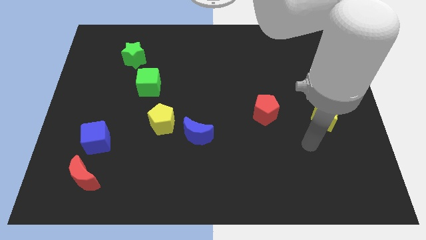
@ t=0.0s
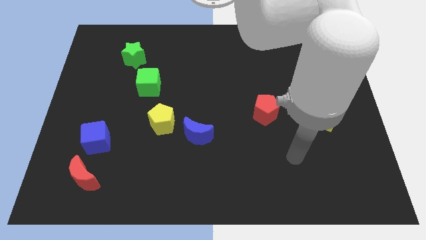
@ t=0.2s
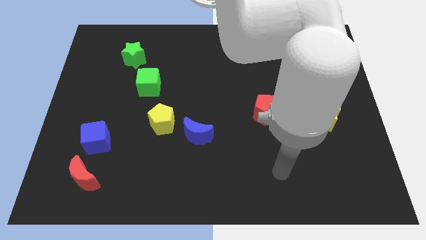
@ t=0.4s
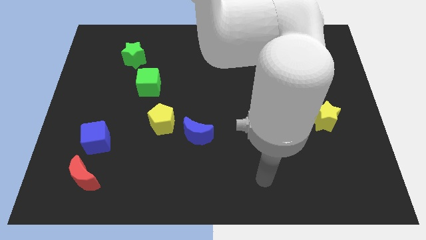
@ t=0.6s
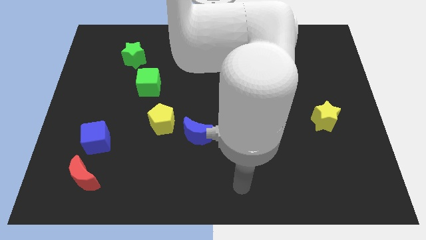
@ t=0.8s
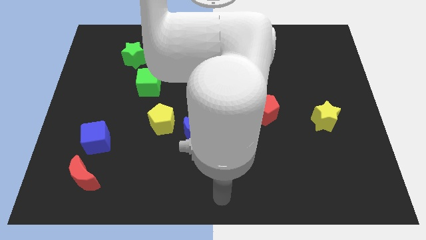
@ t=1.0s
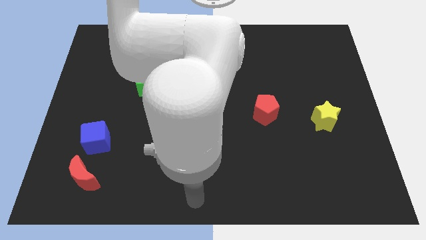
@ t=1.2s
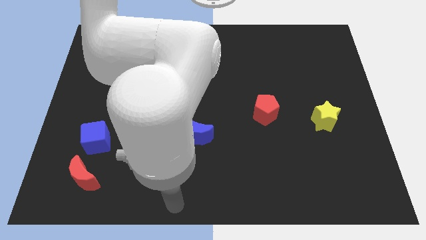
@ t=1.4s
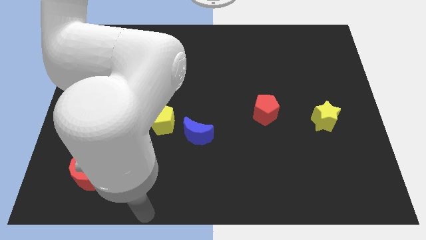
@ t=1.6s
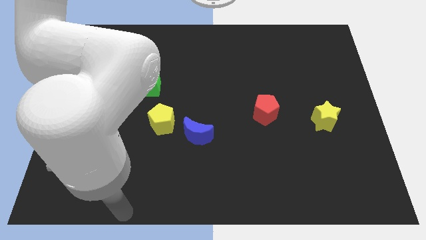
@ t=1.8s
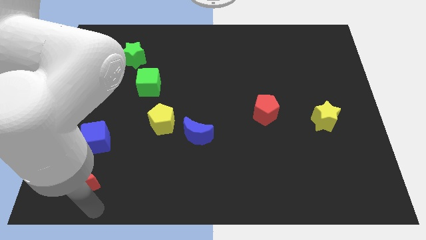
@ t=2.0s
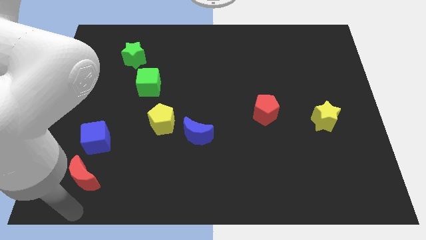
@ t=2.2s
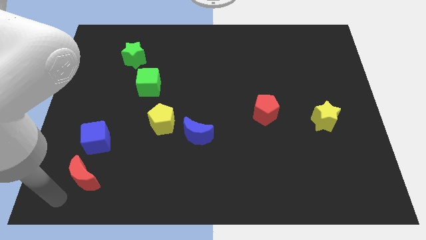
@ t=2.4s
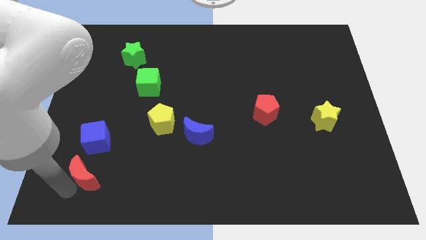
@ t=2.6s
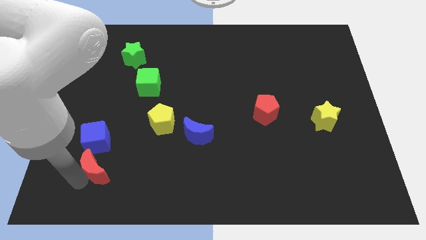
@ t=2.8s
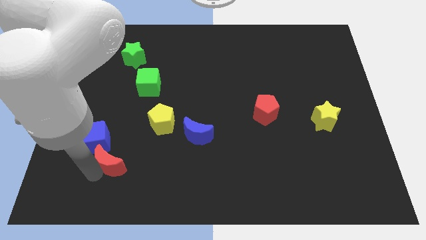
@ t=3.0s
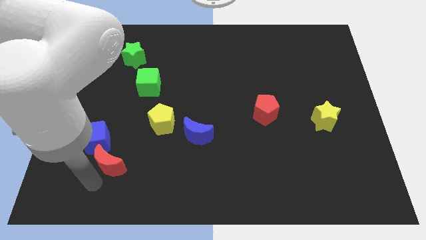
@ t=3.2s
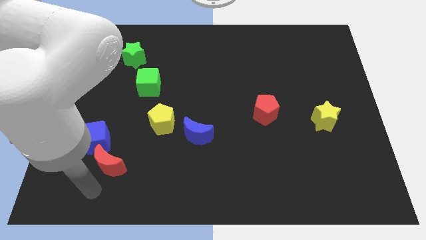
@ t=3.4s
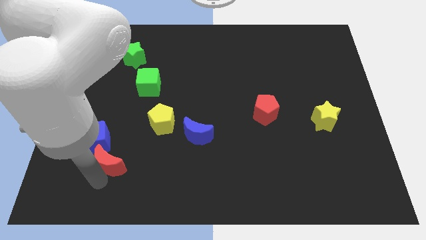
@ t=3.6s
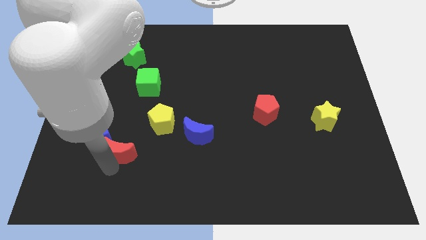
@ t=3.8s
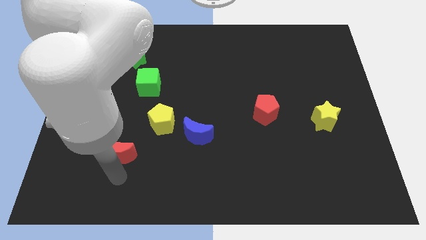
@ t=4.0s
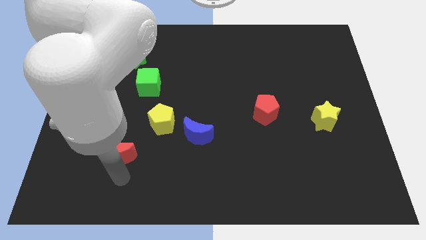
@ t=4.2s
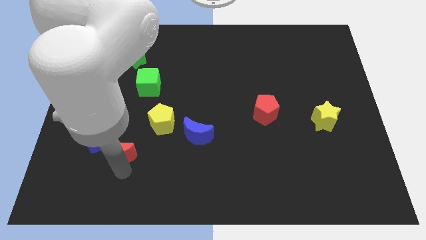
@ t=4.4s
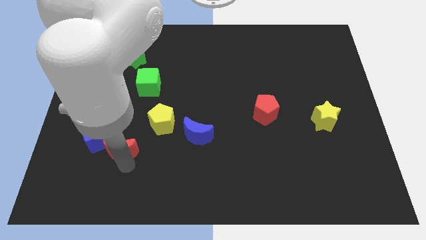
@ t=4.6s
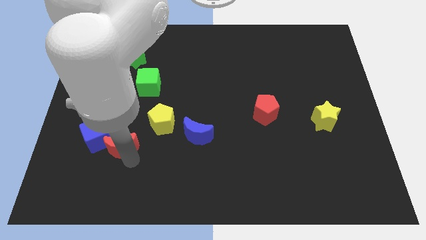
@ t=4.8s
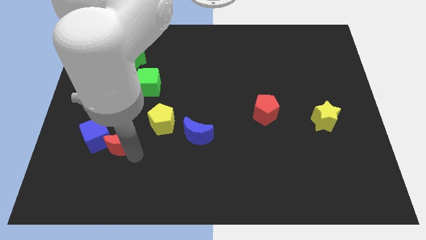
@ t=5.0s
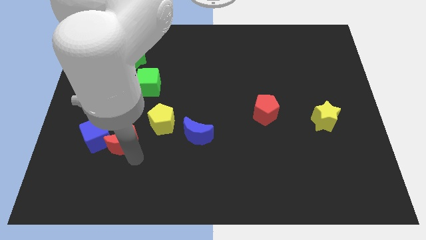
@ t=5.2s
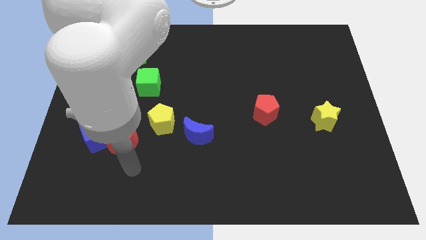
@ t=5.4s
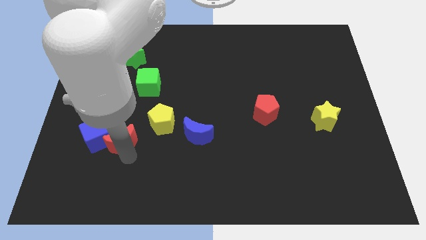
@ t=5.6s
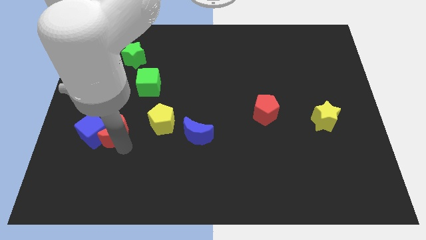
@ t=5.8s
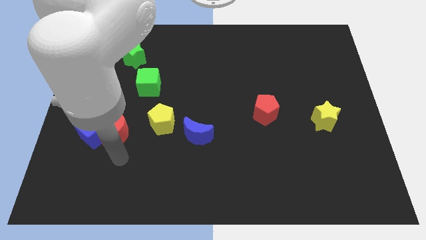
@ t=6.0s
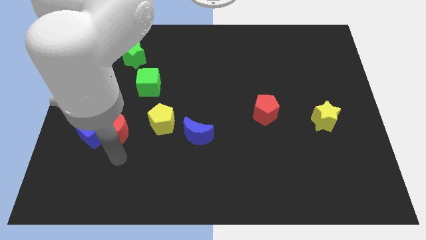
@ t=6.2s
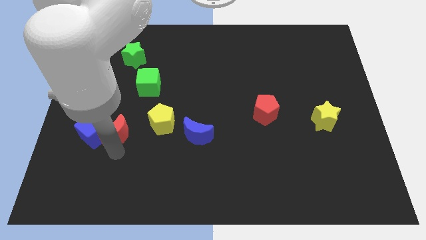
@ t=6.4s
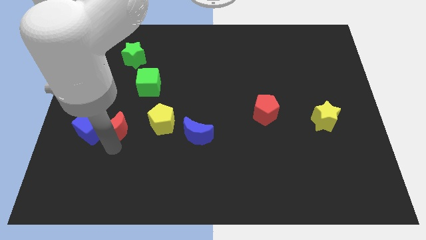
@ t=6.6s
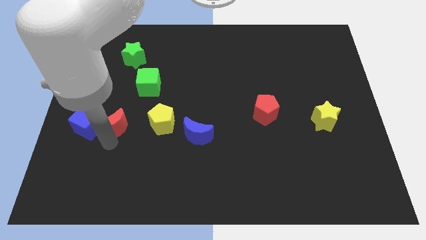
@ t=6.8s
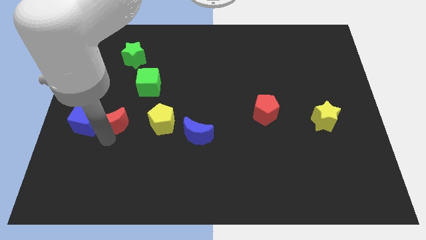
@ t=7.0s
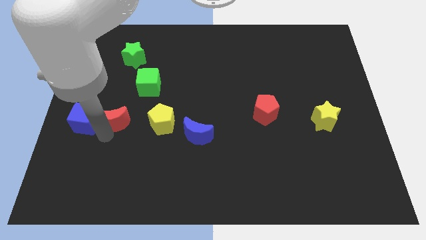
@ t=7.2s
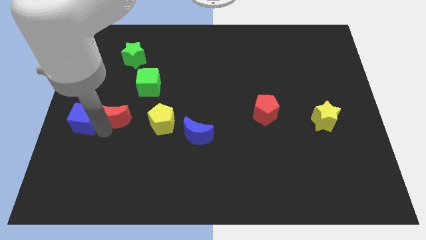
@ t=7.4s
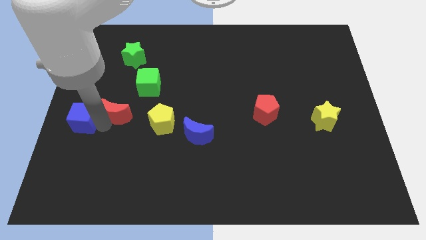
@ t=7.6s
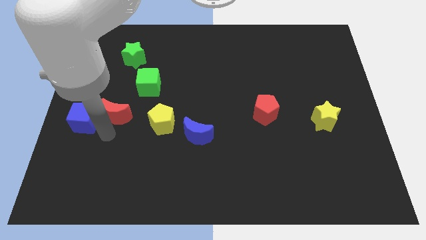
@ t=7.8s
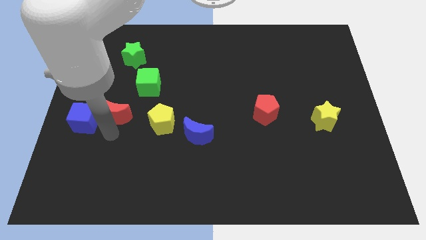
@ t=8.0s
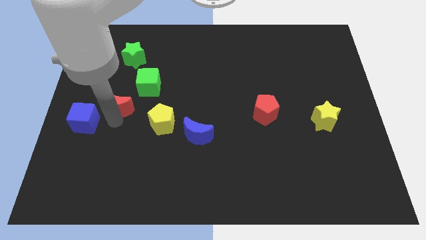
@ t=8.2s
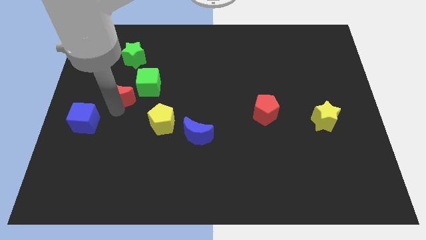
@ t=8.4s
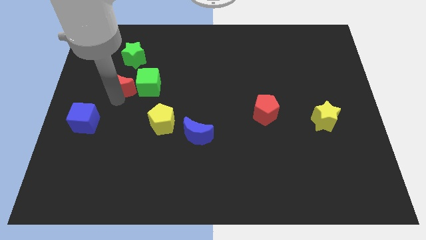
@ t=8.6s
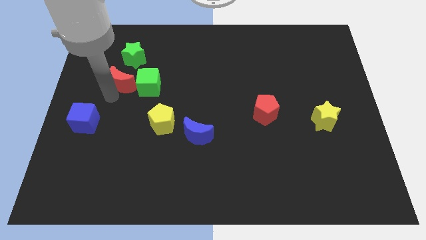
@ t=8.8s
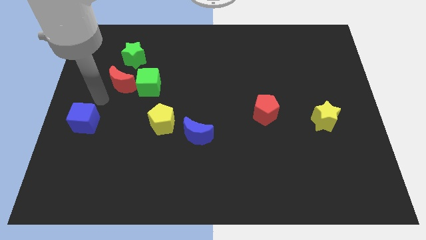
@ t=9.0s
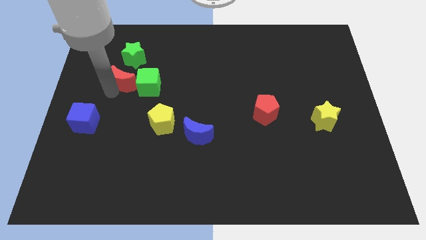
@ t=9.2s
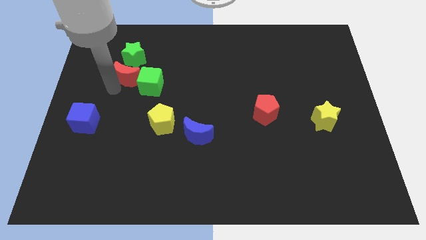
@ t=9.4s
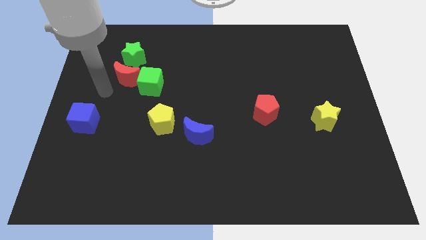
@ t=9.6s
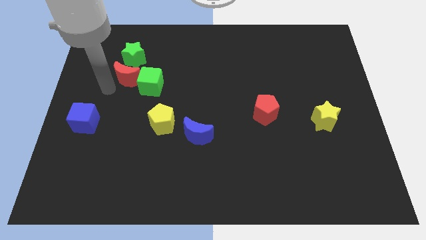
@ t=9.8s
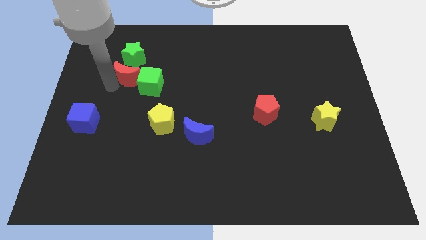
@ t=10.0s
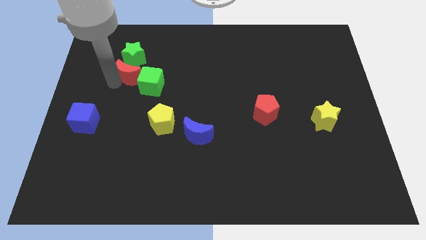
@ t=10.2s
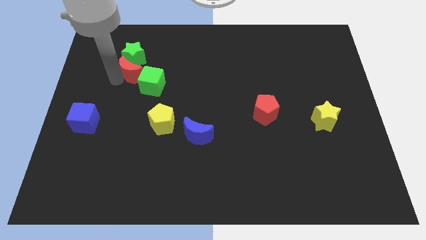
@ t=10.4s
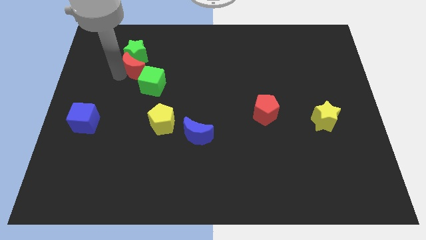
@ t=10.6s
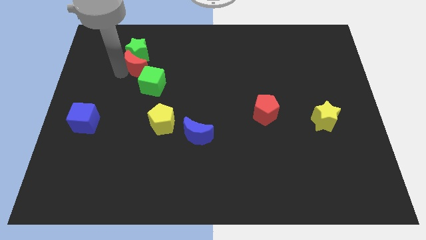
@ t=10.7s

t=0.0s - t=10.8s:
push the red moon to the top of the green cube

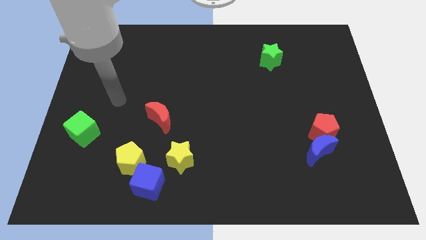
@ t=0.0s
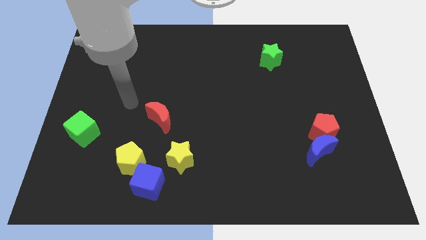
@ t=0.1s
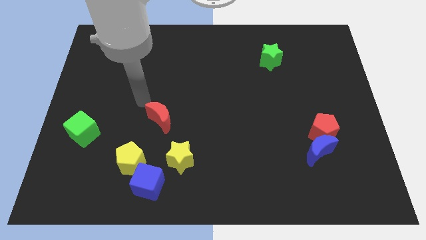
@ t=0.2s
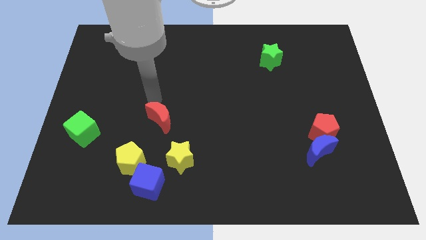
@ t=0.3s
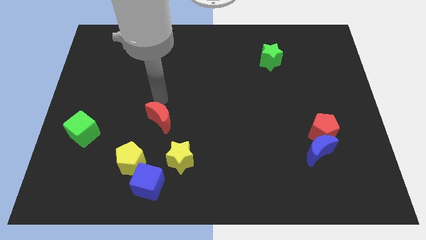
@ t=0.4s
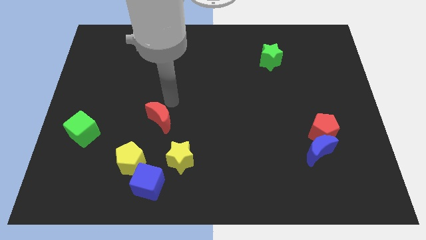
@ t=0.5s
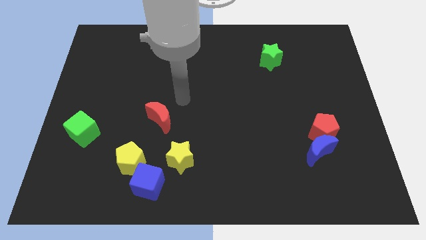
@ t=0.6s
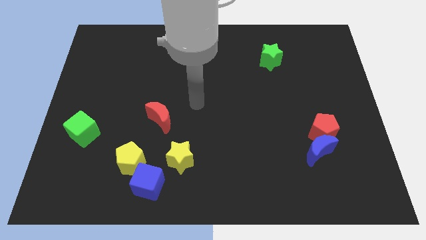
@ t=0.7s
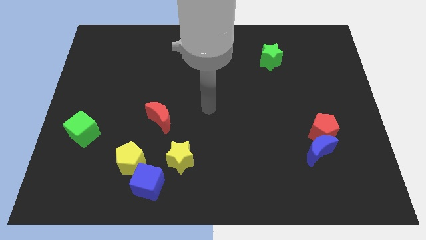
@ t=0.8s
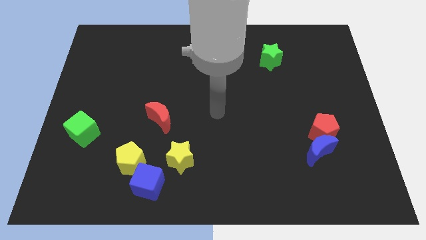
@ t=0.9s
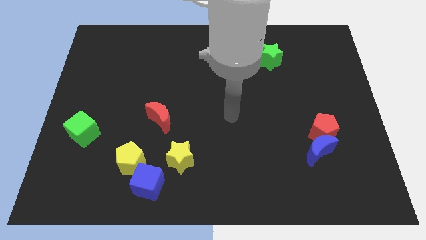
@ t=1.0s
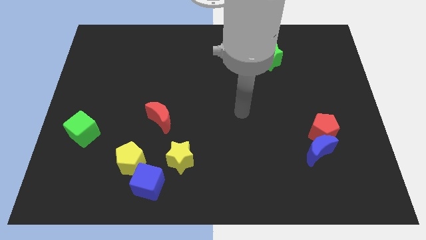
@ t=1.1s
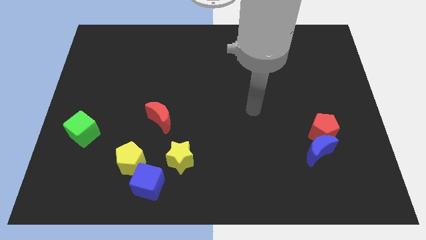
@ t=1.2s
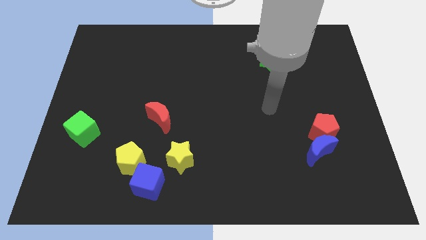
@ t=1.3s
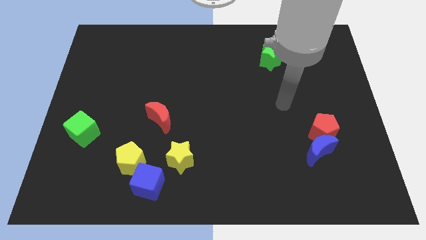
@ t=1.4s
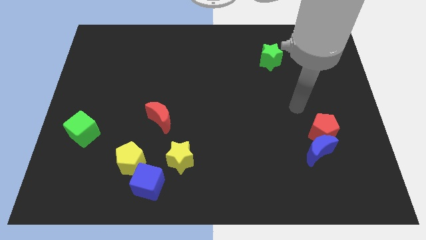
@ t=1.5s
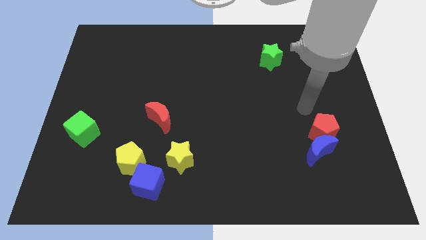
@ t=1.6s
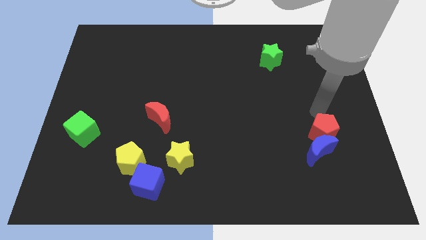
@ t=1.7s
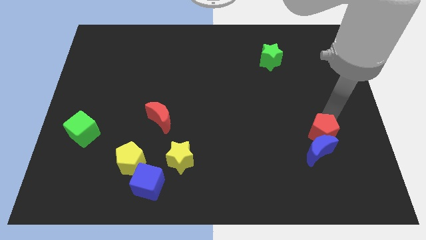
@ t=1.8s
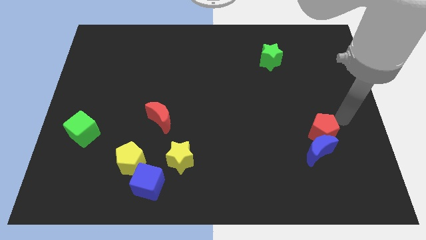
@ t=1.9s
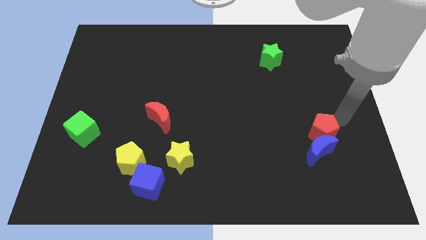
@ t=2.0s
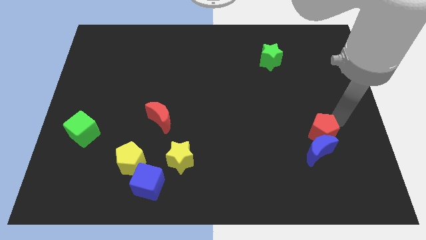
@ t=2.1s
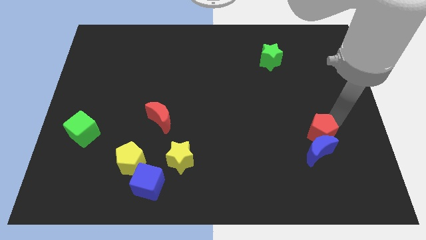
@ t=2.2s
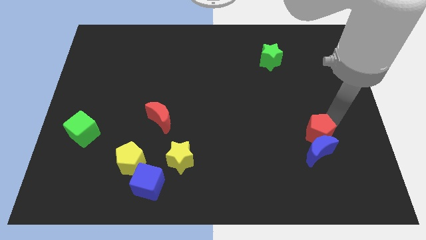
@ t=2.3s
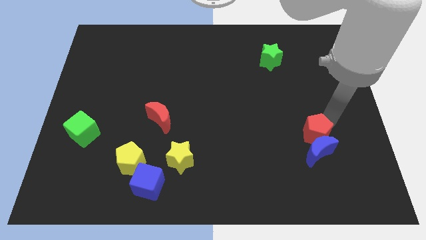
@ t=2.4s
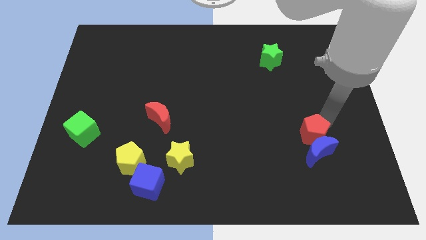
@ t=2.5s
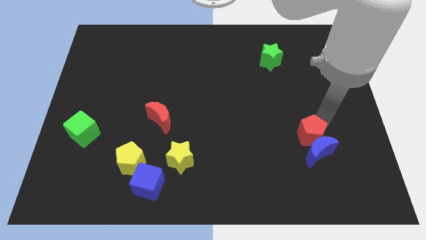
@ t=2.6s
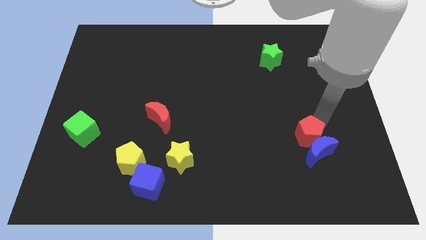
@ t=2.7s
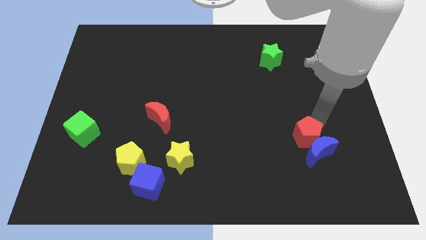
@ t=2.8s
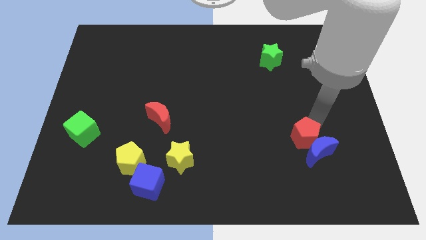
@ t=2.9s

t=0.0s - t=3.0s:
put the red pentagon to the left side of the blue moon
